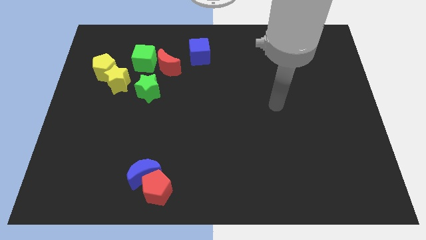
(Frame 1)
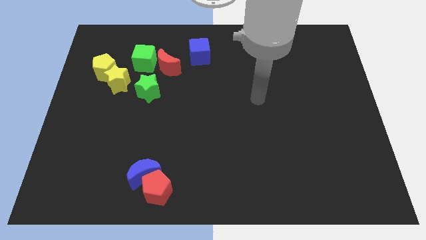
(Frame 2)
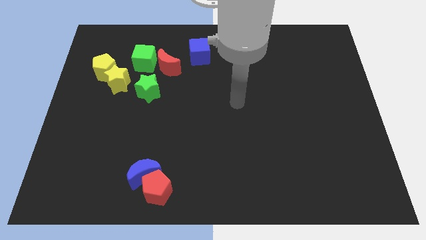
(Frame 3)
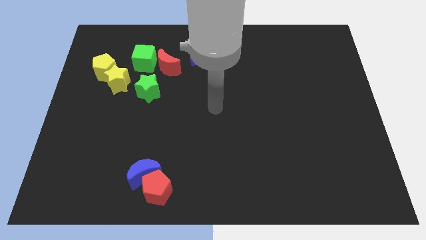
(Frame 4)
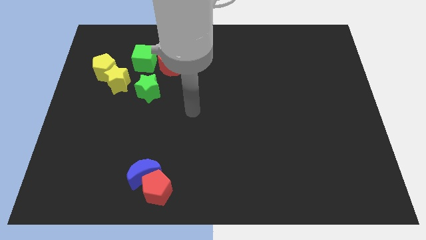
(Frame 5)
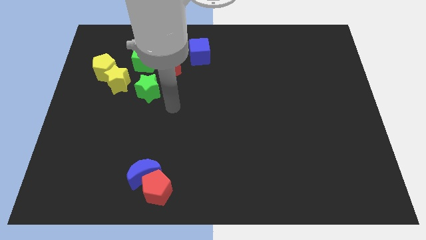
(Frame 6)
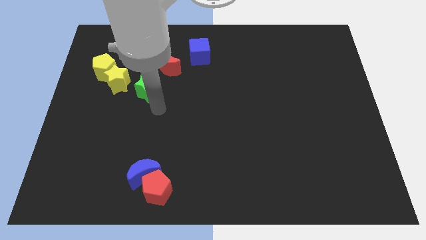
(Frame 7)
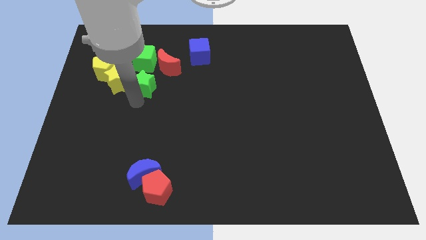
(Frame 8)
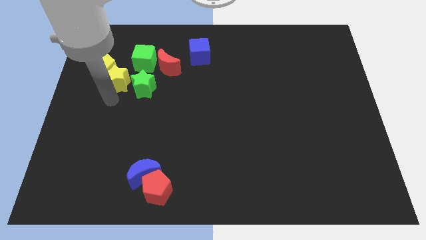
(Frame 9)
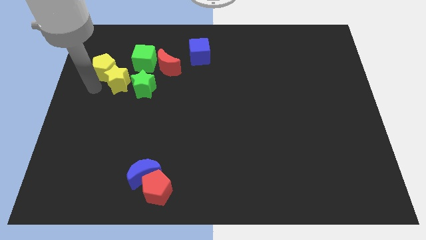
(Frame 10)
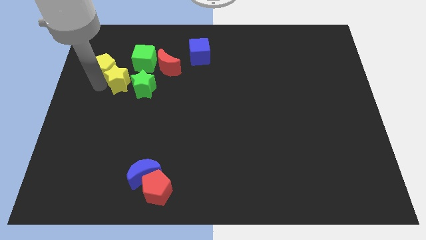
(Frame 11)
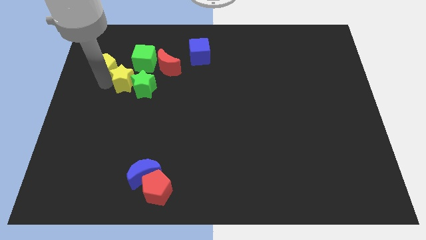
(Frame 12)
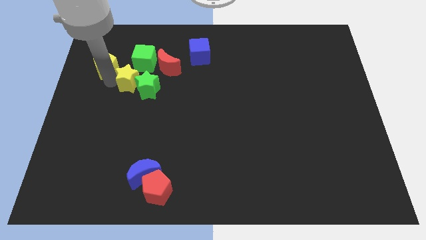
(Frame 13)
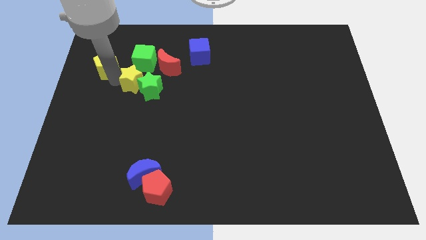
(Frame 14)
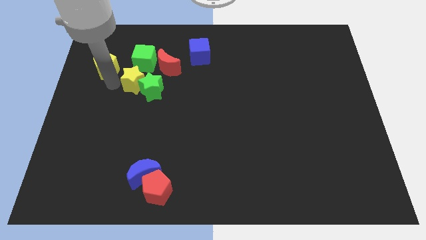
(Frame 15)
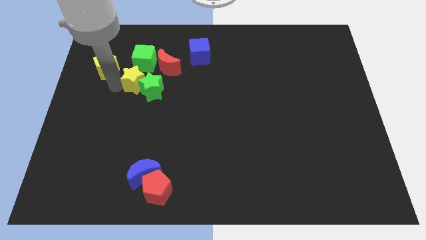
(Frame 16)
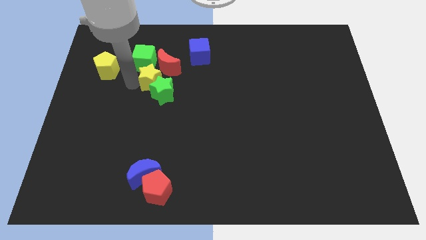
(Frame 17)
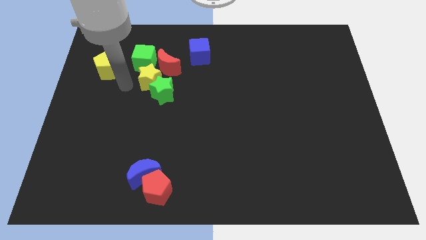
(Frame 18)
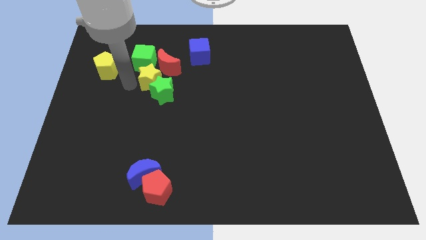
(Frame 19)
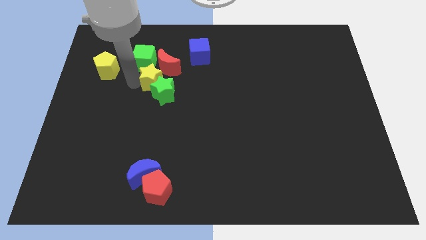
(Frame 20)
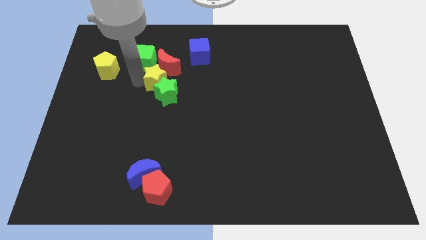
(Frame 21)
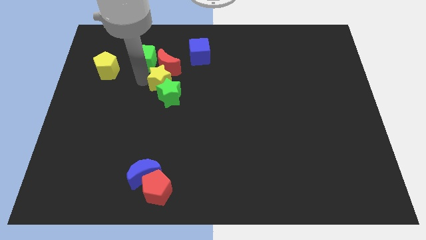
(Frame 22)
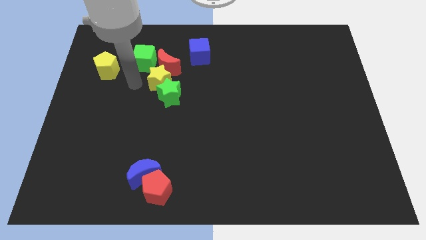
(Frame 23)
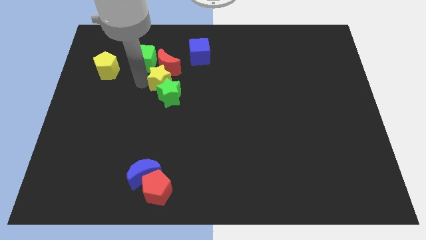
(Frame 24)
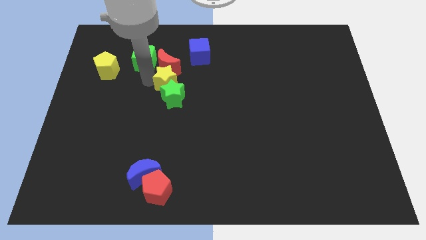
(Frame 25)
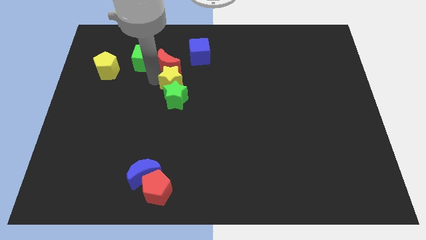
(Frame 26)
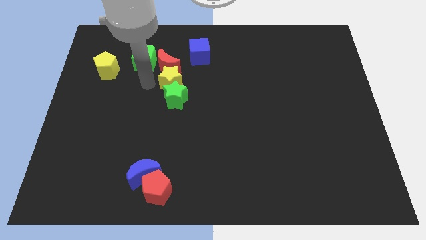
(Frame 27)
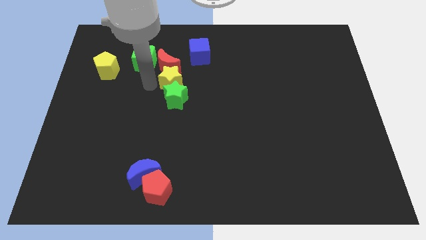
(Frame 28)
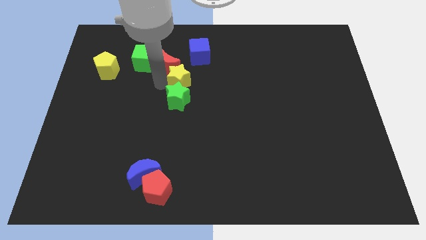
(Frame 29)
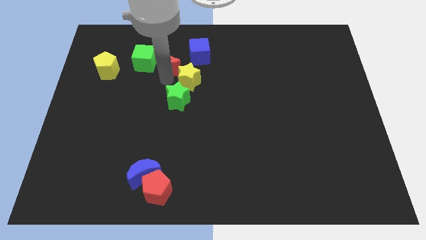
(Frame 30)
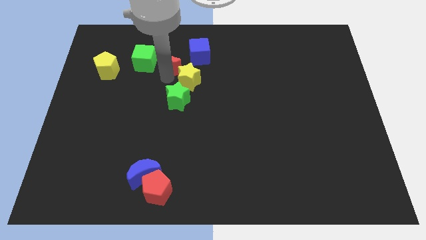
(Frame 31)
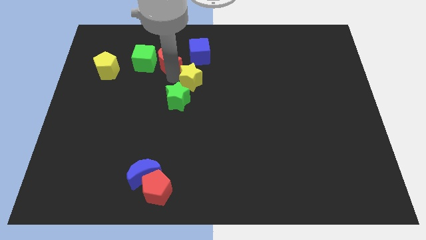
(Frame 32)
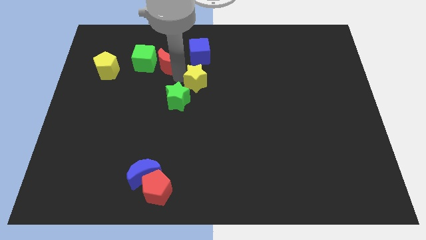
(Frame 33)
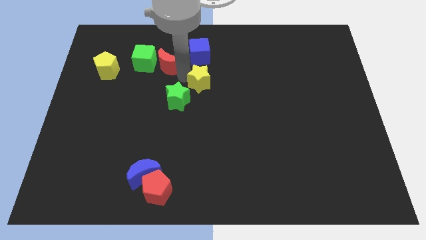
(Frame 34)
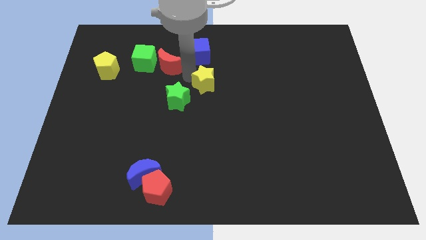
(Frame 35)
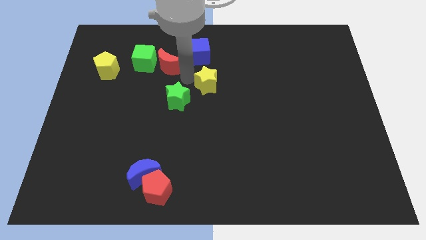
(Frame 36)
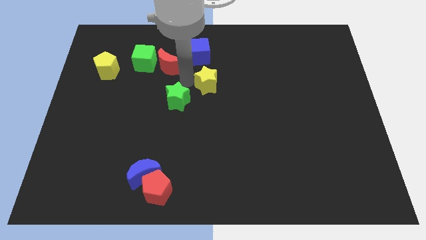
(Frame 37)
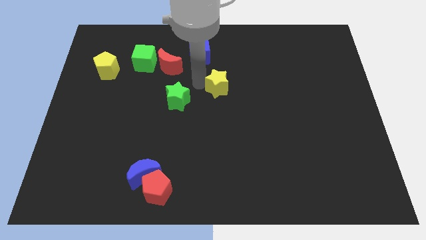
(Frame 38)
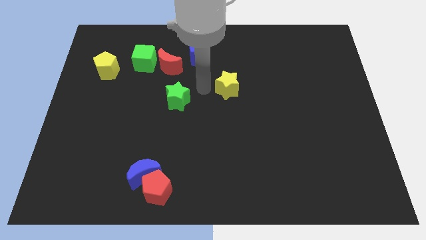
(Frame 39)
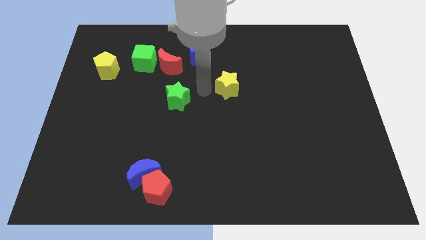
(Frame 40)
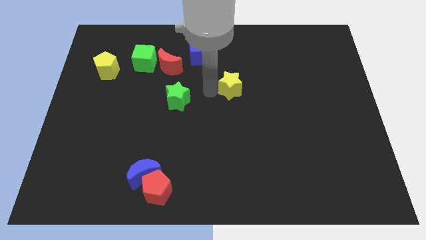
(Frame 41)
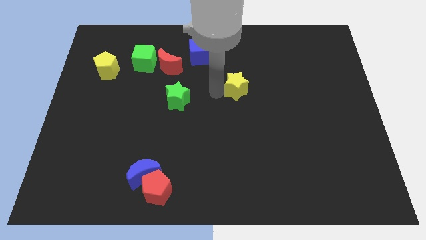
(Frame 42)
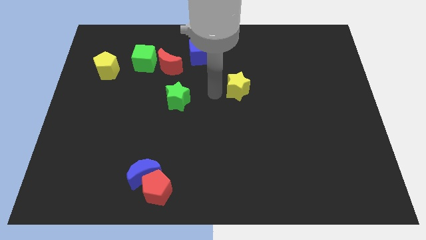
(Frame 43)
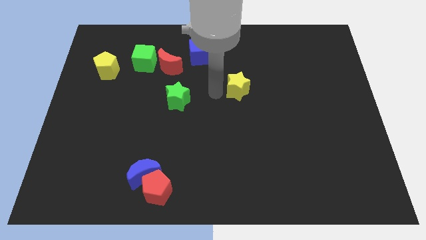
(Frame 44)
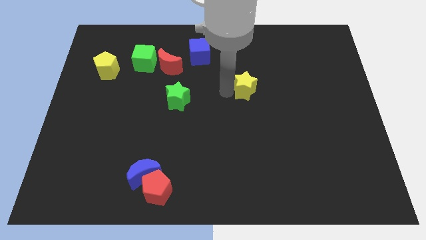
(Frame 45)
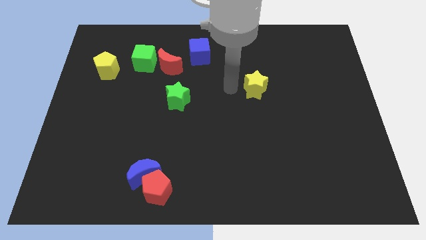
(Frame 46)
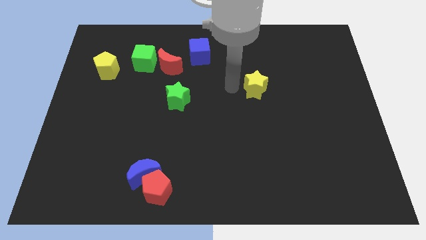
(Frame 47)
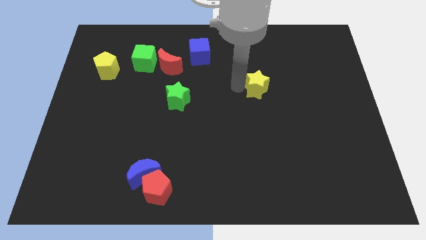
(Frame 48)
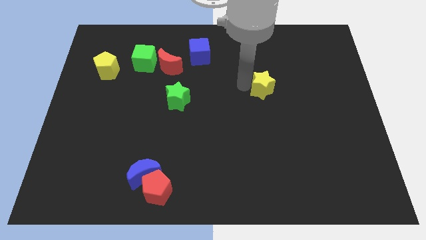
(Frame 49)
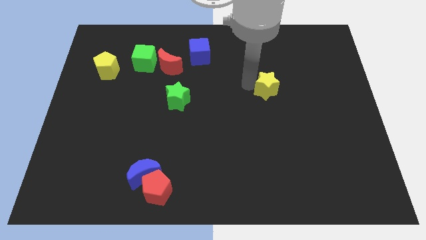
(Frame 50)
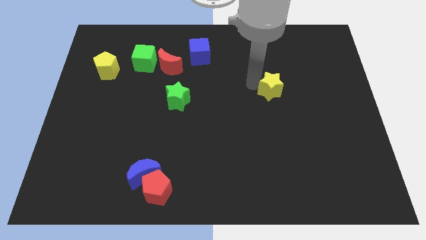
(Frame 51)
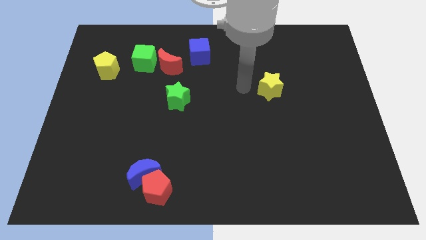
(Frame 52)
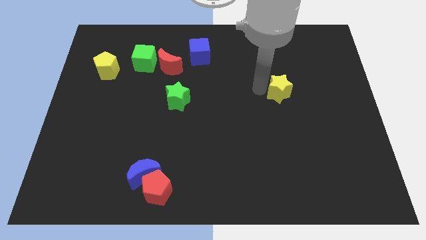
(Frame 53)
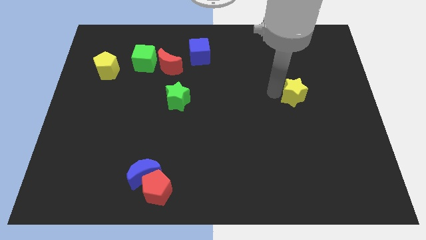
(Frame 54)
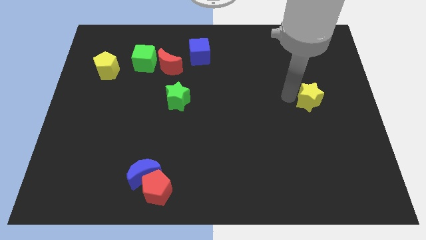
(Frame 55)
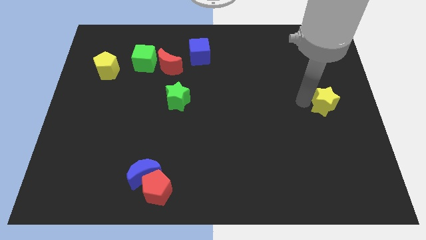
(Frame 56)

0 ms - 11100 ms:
push the yellow star to the right side of the board

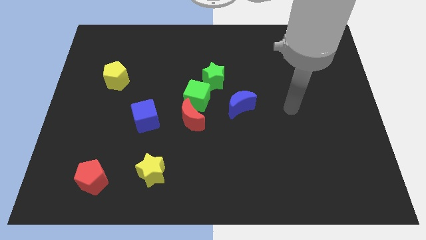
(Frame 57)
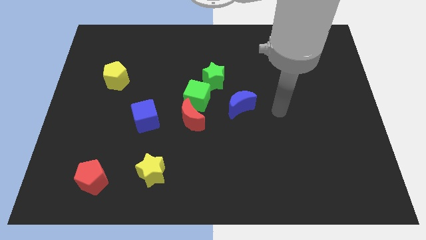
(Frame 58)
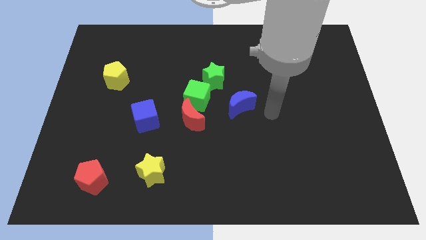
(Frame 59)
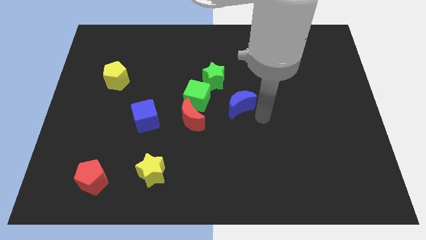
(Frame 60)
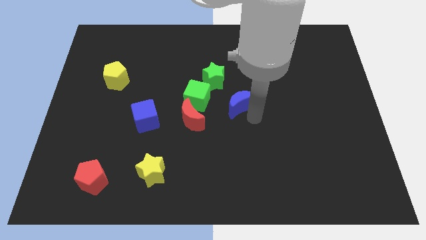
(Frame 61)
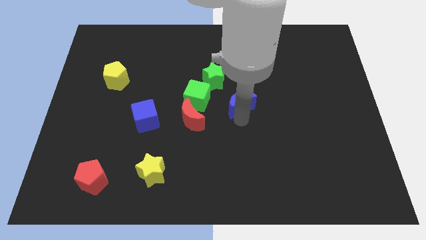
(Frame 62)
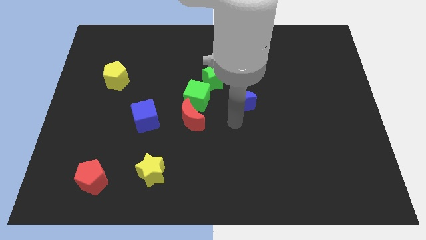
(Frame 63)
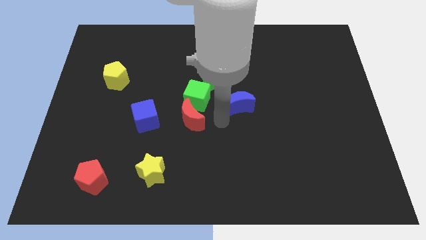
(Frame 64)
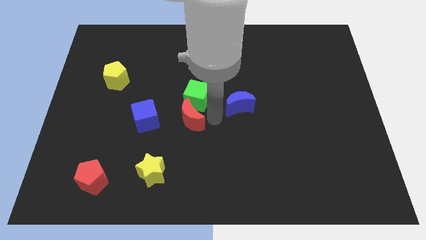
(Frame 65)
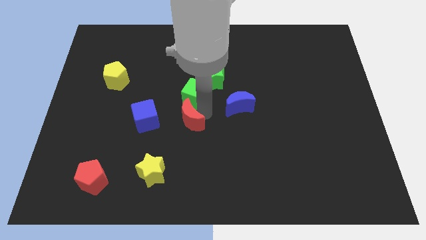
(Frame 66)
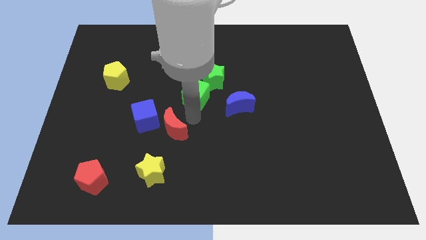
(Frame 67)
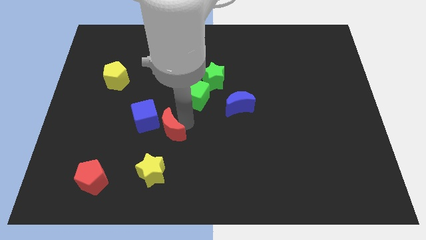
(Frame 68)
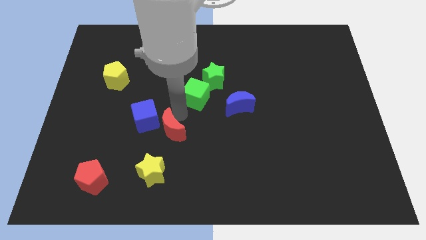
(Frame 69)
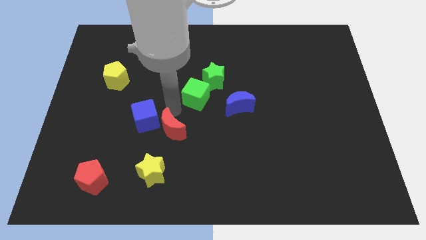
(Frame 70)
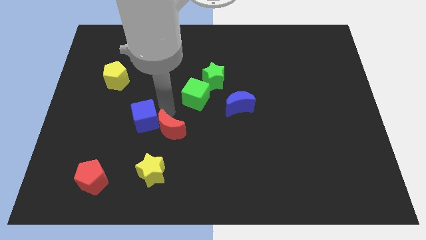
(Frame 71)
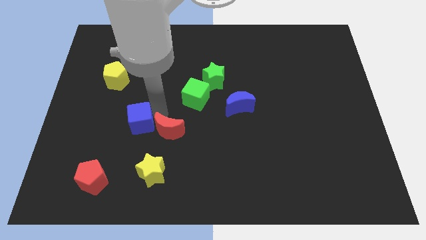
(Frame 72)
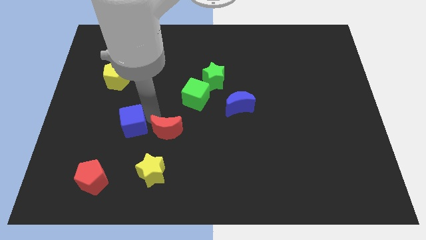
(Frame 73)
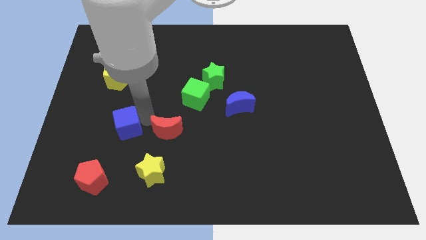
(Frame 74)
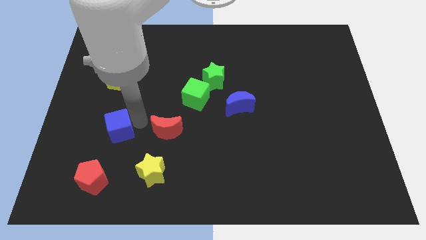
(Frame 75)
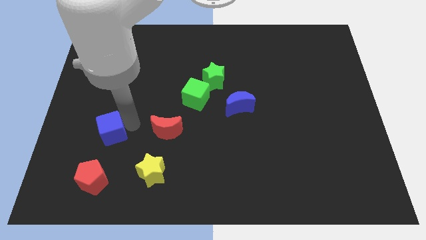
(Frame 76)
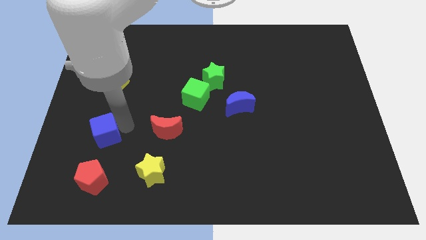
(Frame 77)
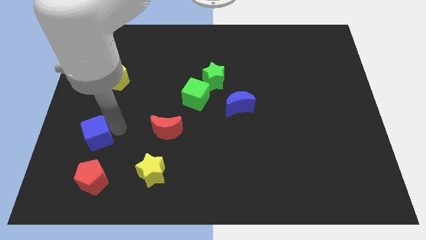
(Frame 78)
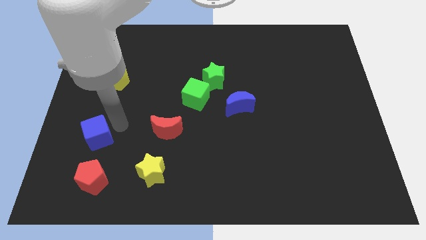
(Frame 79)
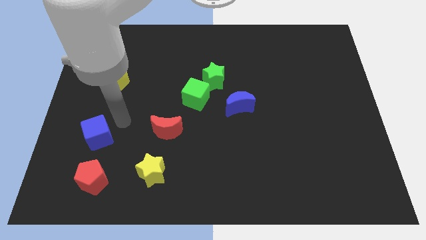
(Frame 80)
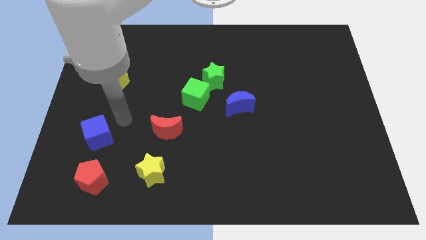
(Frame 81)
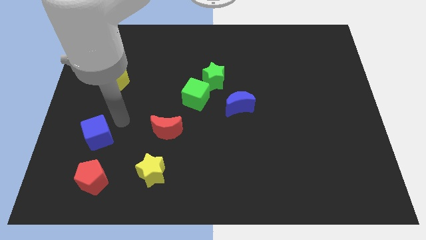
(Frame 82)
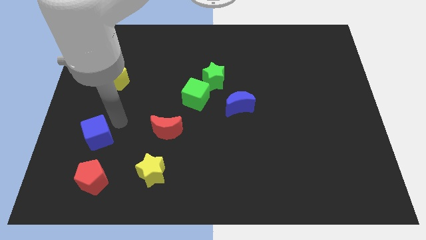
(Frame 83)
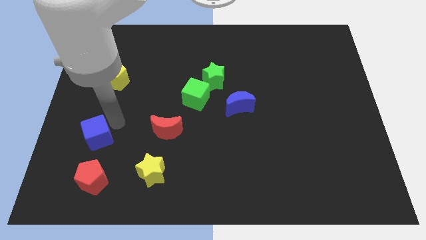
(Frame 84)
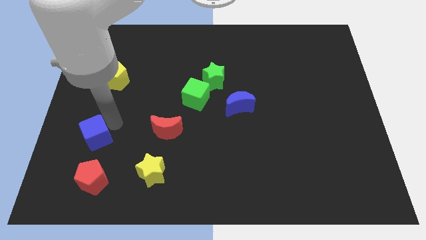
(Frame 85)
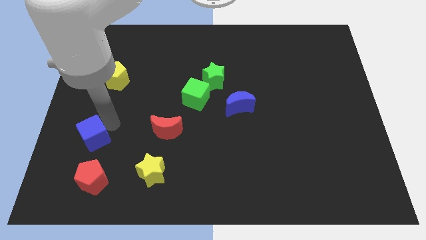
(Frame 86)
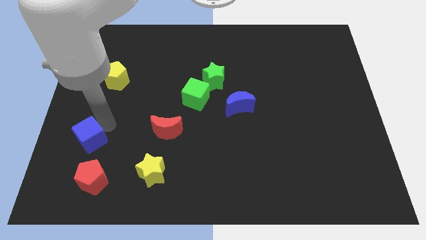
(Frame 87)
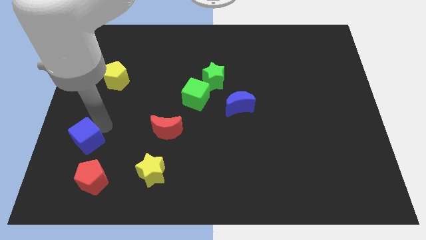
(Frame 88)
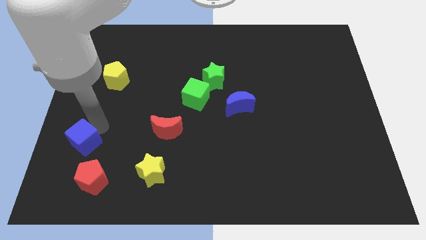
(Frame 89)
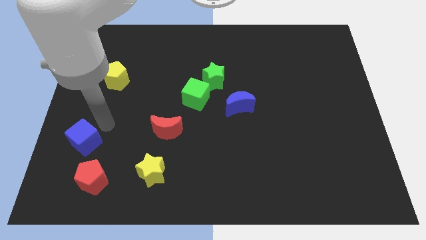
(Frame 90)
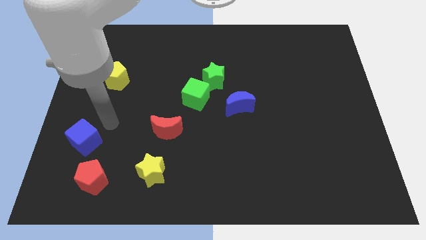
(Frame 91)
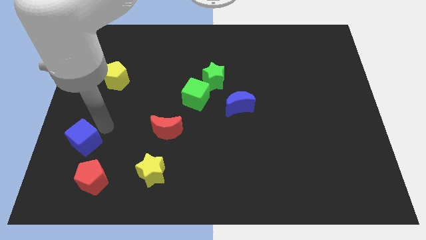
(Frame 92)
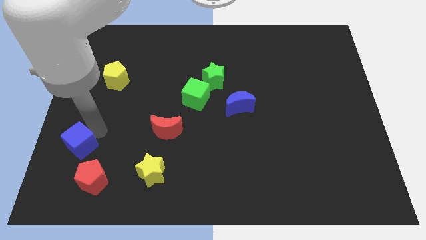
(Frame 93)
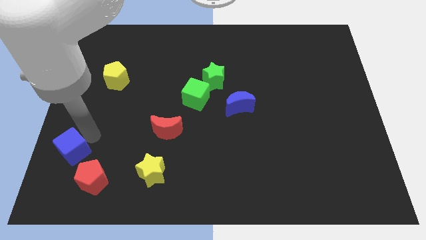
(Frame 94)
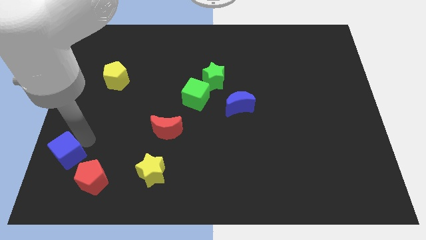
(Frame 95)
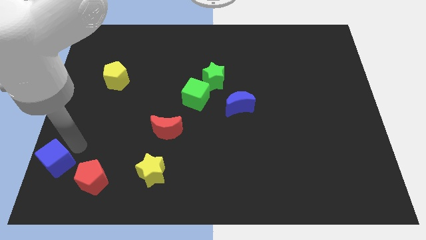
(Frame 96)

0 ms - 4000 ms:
slide the blue cube to the bottom left corner
